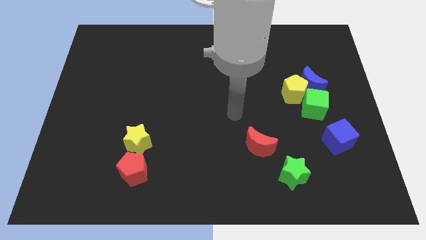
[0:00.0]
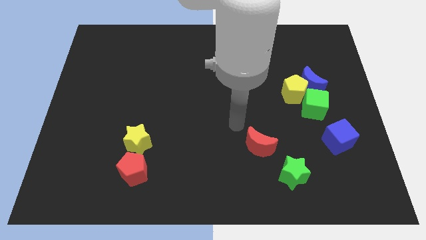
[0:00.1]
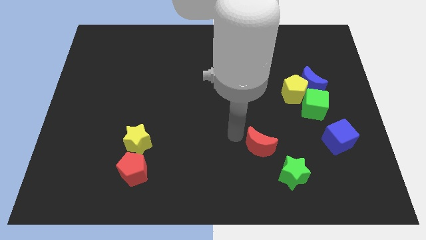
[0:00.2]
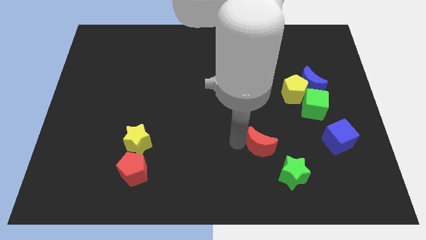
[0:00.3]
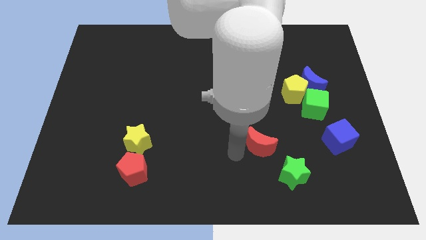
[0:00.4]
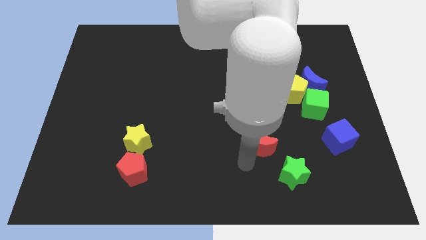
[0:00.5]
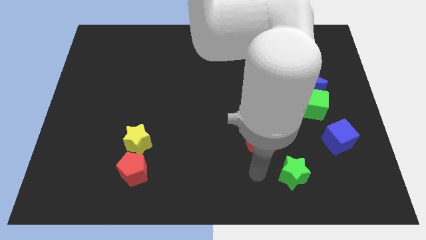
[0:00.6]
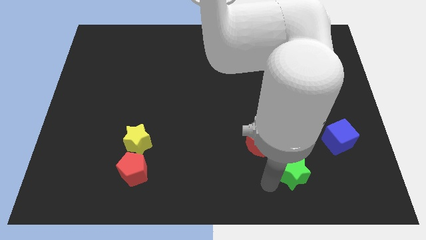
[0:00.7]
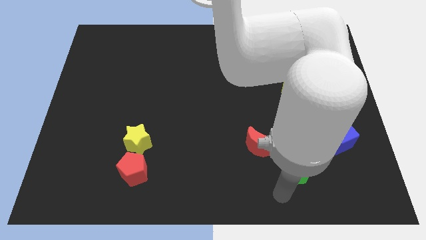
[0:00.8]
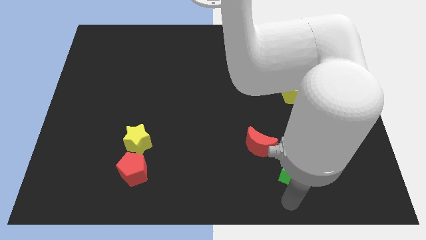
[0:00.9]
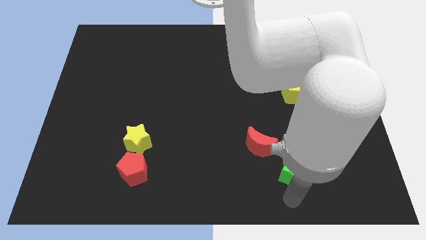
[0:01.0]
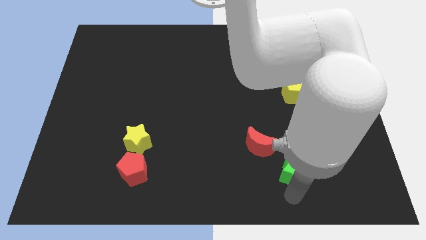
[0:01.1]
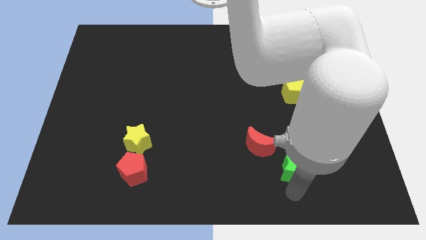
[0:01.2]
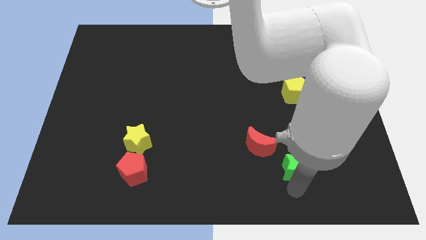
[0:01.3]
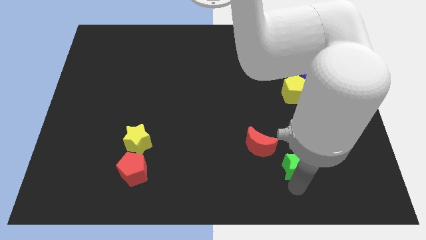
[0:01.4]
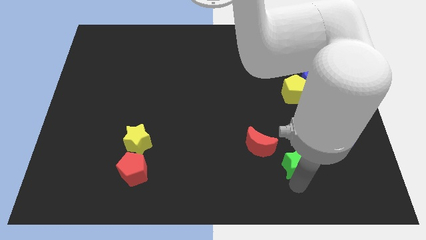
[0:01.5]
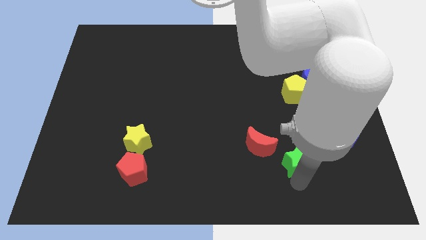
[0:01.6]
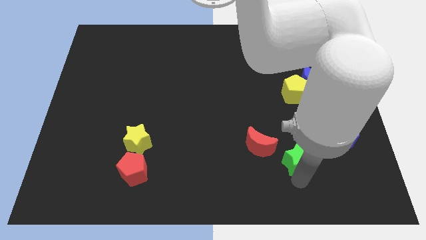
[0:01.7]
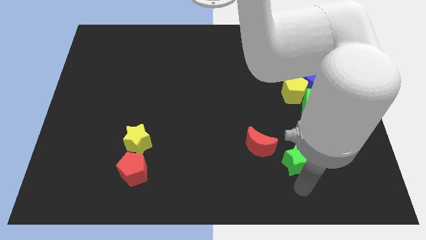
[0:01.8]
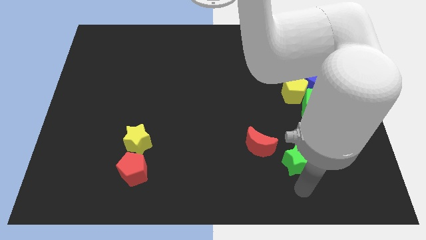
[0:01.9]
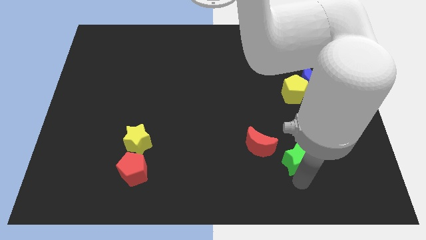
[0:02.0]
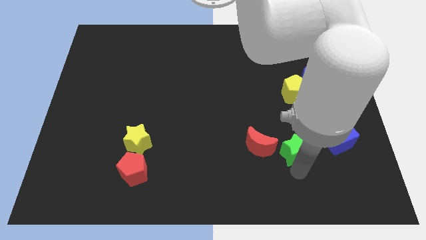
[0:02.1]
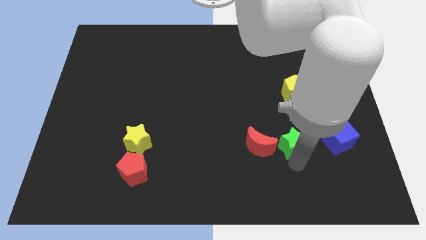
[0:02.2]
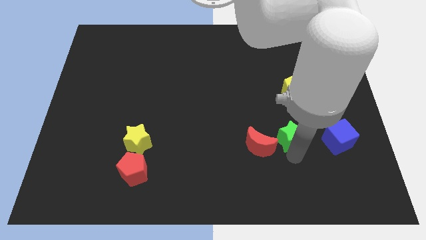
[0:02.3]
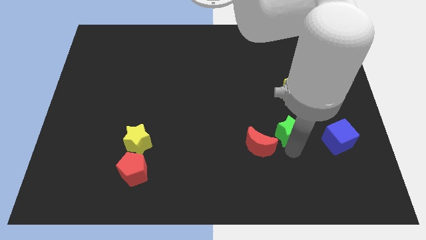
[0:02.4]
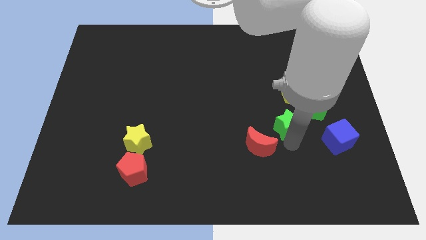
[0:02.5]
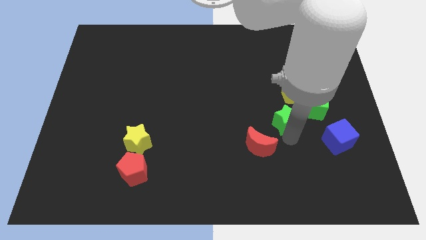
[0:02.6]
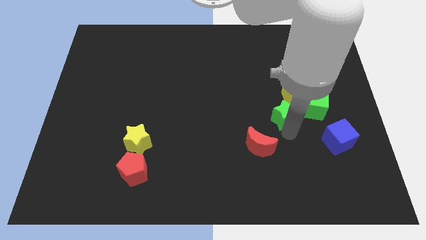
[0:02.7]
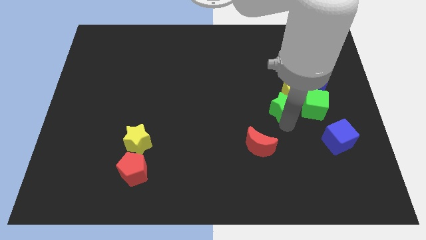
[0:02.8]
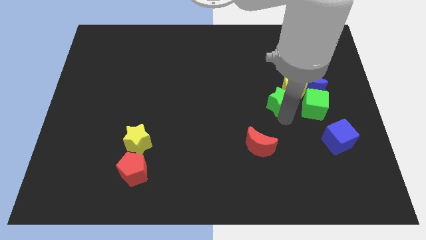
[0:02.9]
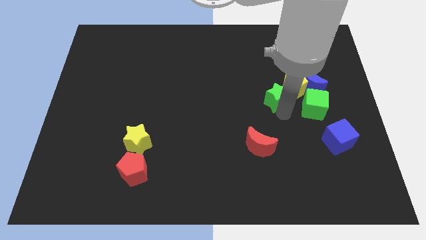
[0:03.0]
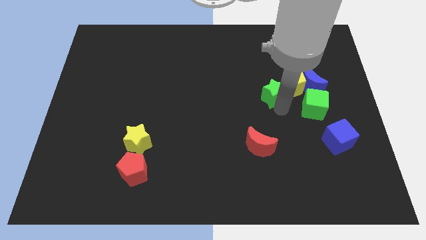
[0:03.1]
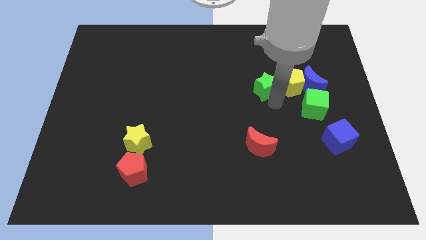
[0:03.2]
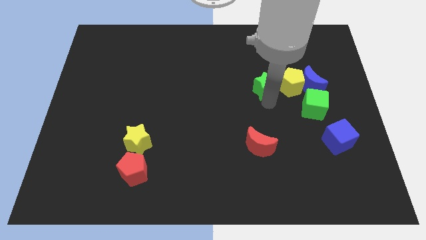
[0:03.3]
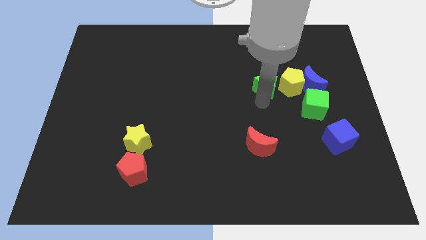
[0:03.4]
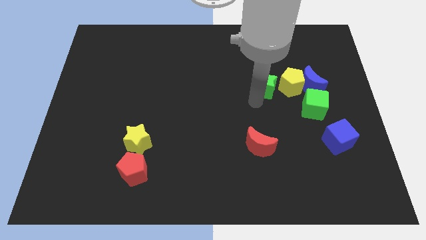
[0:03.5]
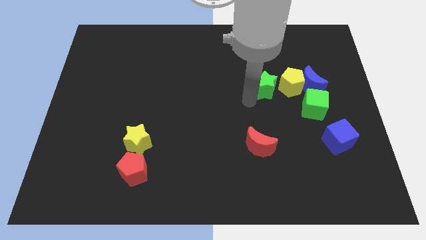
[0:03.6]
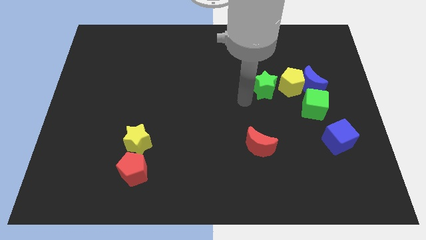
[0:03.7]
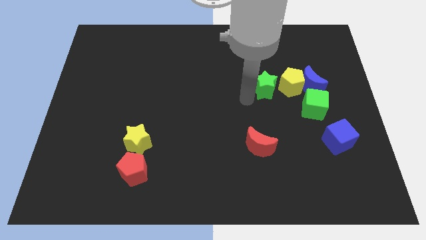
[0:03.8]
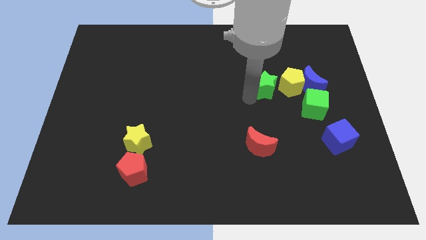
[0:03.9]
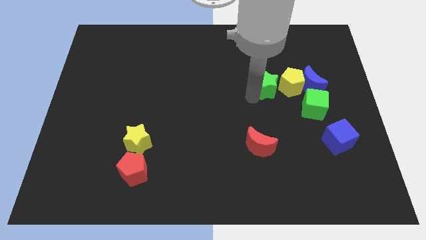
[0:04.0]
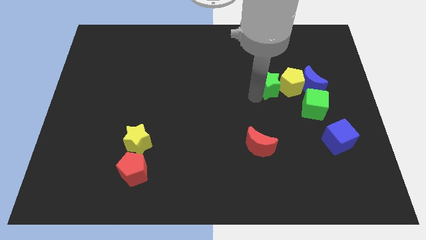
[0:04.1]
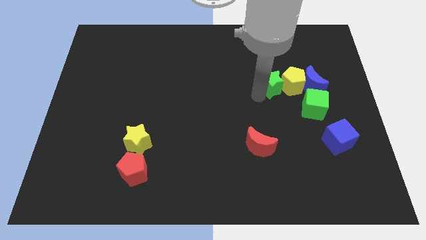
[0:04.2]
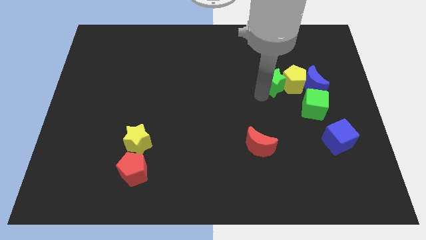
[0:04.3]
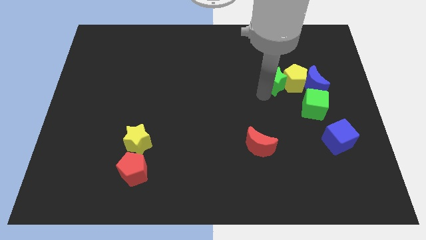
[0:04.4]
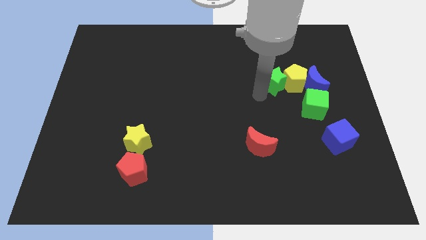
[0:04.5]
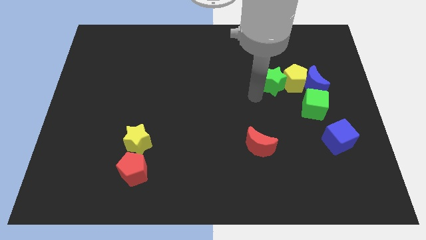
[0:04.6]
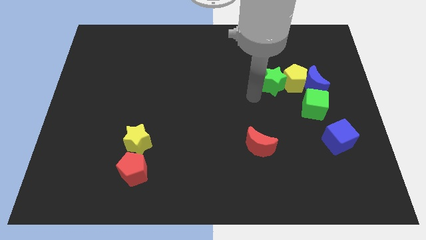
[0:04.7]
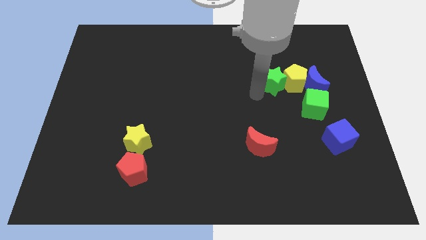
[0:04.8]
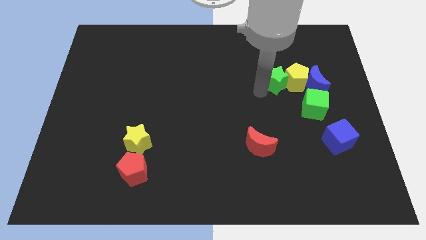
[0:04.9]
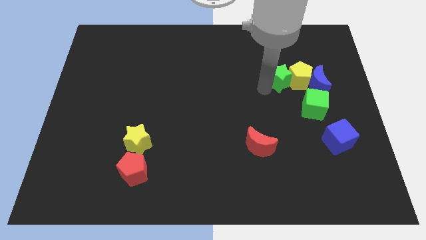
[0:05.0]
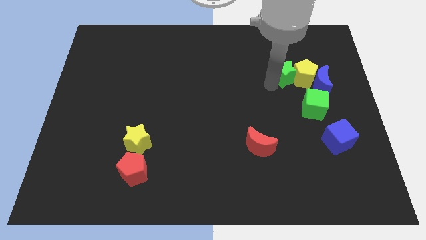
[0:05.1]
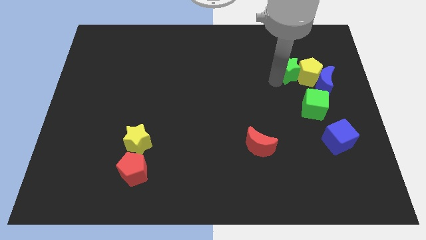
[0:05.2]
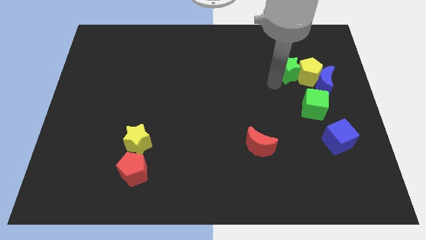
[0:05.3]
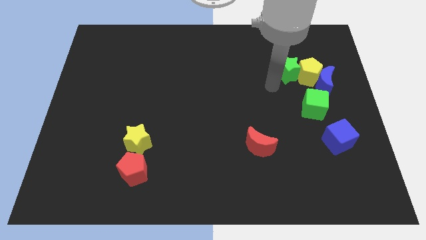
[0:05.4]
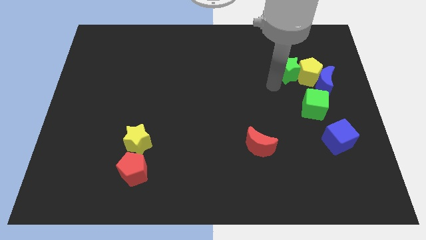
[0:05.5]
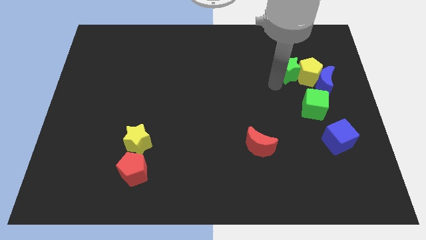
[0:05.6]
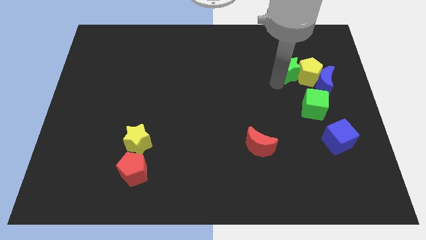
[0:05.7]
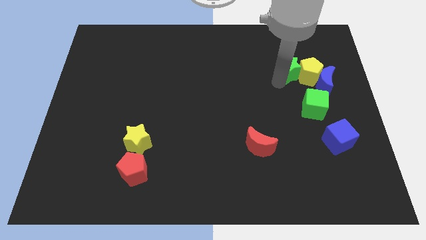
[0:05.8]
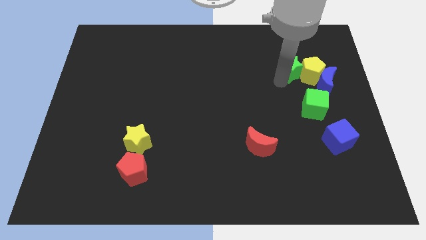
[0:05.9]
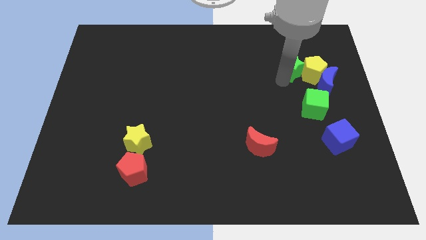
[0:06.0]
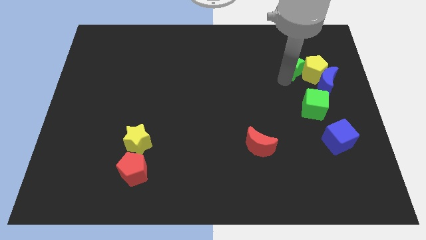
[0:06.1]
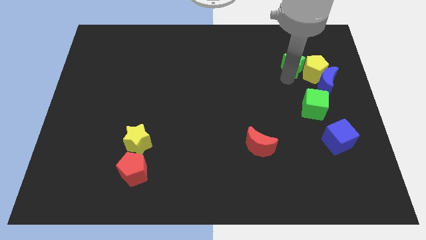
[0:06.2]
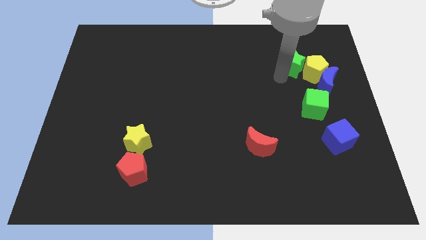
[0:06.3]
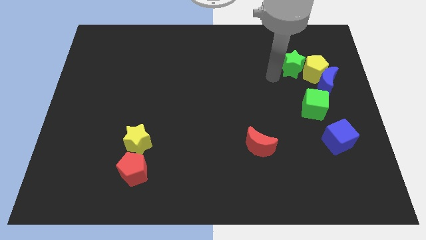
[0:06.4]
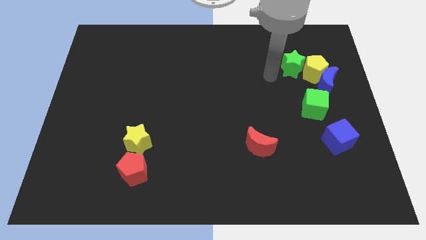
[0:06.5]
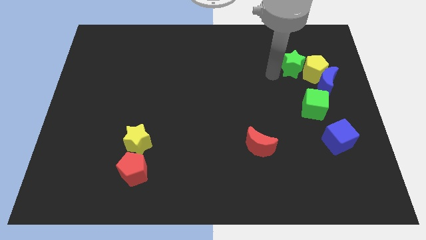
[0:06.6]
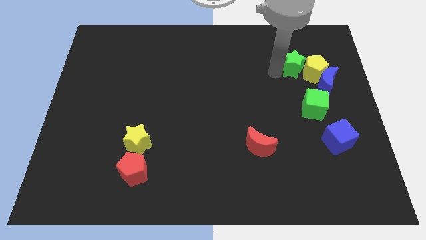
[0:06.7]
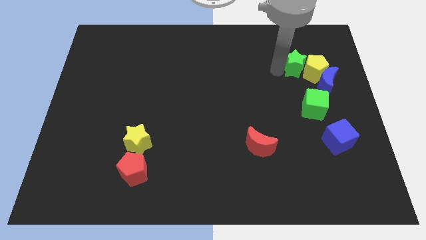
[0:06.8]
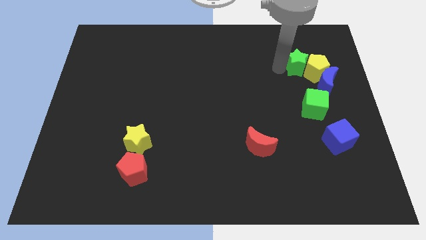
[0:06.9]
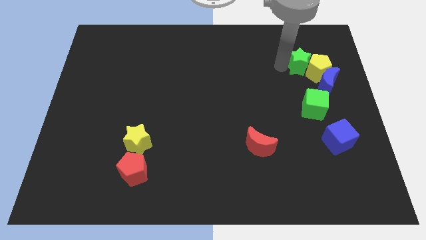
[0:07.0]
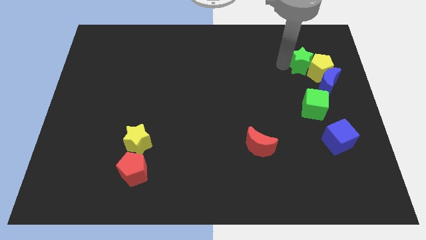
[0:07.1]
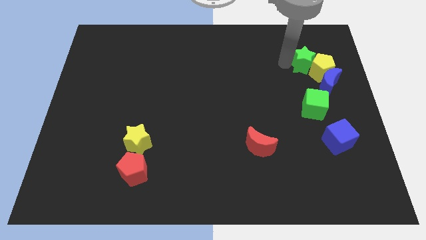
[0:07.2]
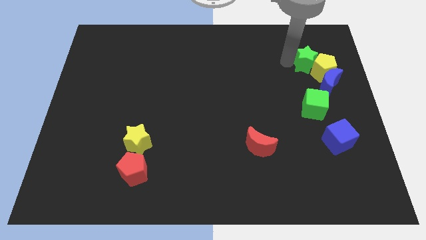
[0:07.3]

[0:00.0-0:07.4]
slide the green star to the top of the blue moon
